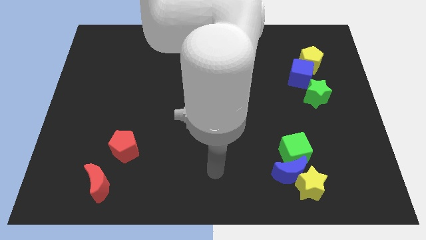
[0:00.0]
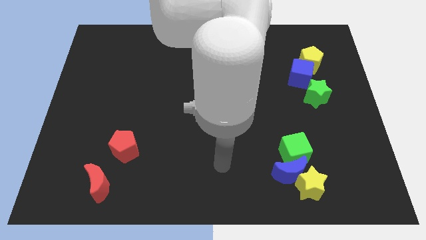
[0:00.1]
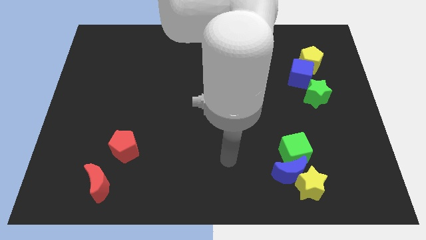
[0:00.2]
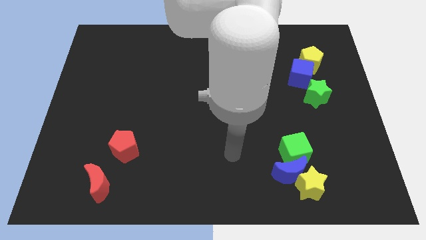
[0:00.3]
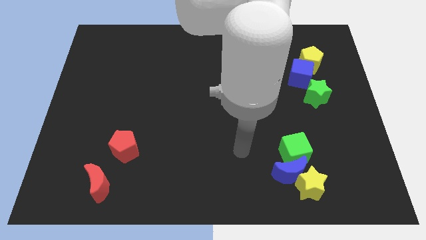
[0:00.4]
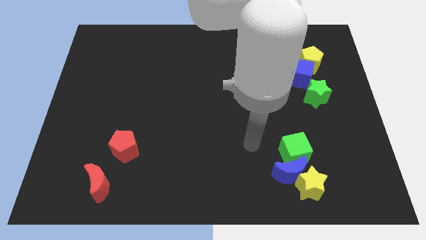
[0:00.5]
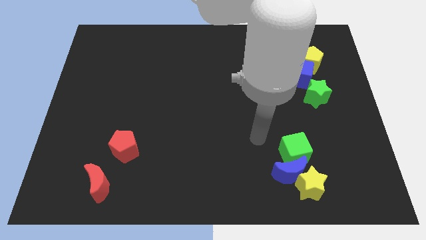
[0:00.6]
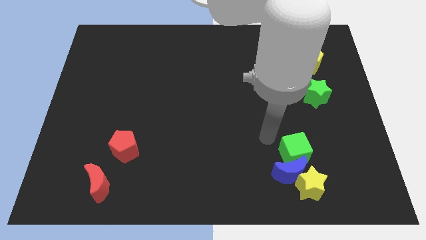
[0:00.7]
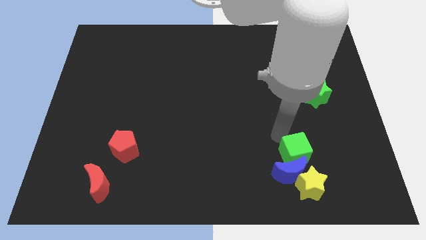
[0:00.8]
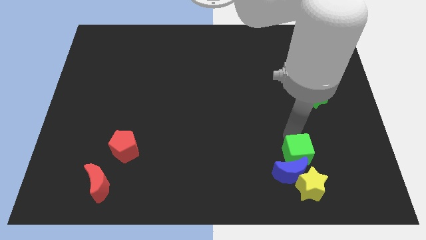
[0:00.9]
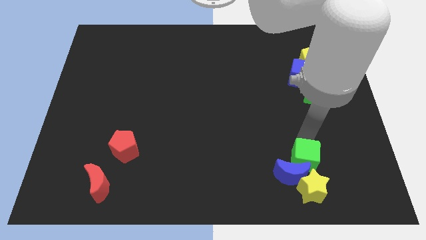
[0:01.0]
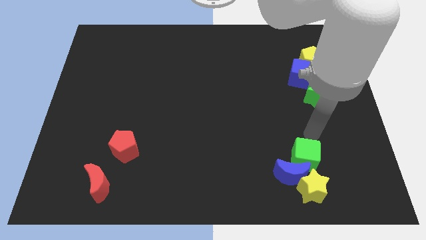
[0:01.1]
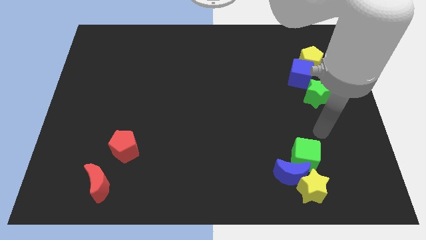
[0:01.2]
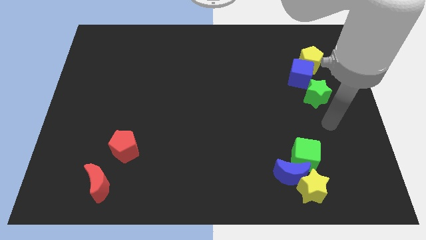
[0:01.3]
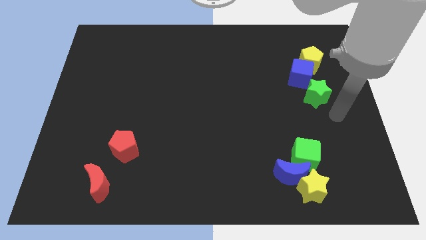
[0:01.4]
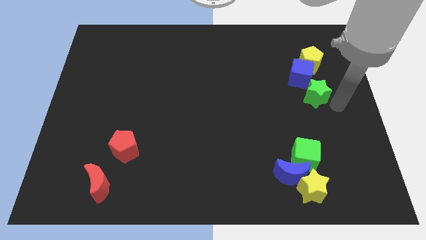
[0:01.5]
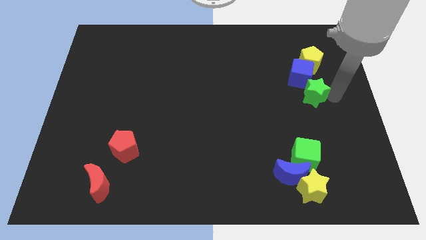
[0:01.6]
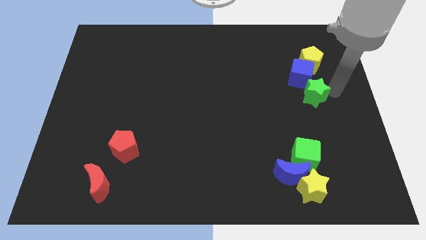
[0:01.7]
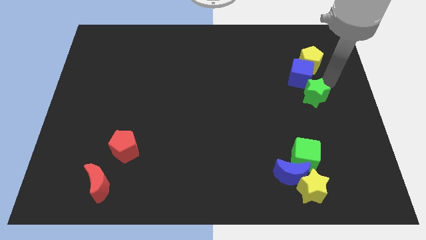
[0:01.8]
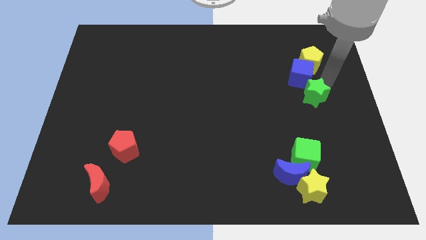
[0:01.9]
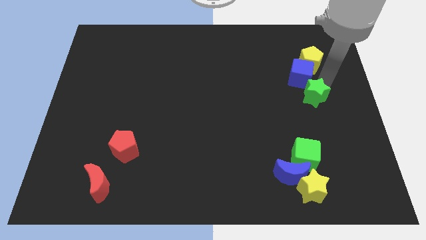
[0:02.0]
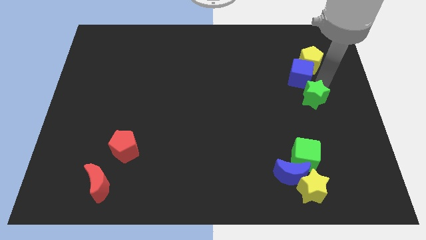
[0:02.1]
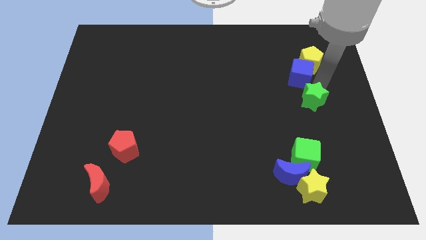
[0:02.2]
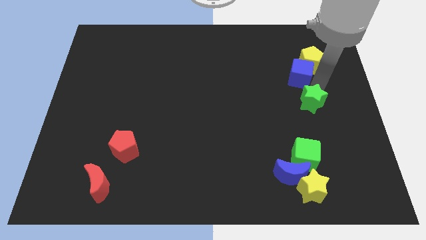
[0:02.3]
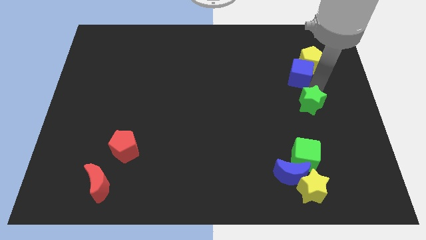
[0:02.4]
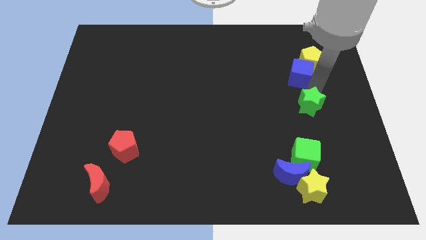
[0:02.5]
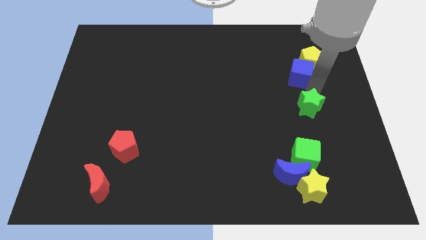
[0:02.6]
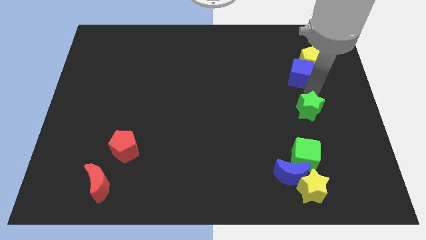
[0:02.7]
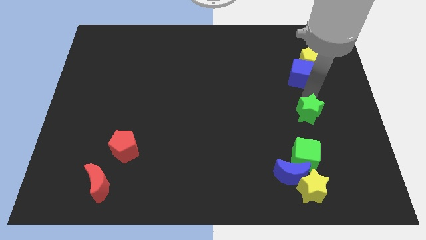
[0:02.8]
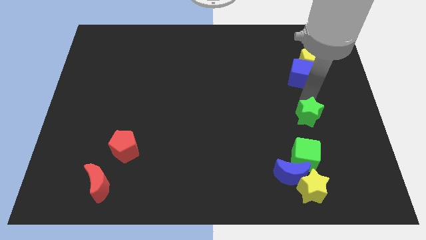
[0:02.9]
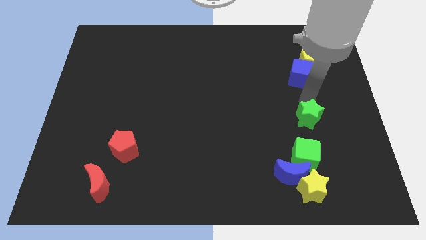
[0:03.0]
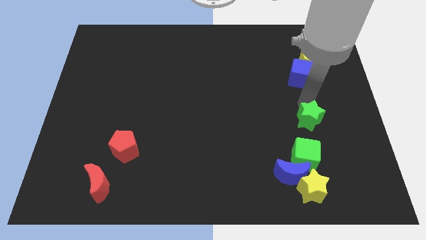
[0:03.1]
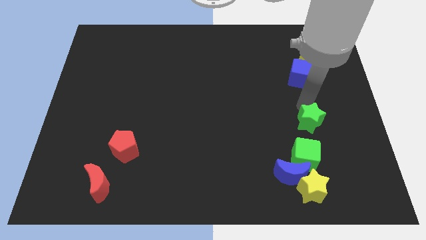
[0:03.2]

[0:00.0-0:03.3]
move the green star down and then to the left a little bit

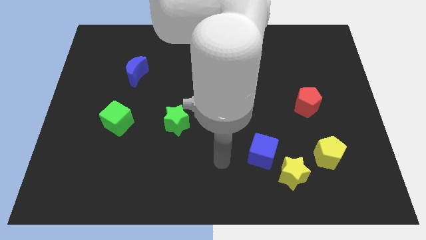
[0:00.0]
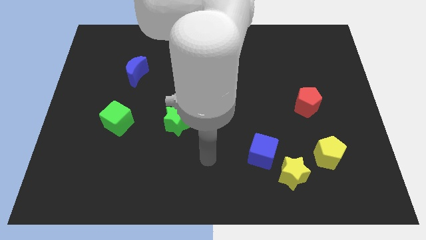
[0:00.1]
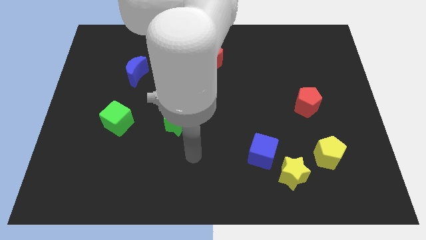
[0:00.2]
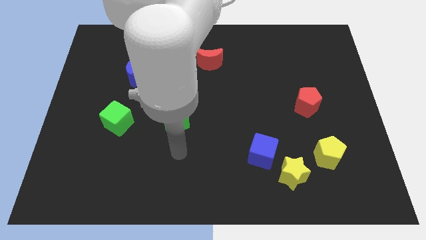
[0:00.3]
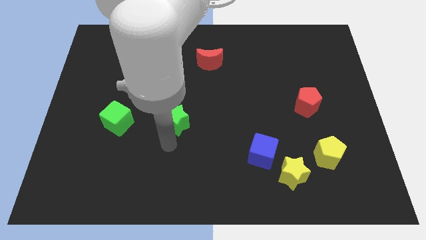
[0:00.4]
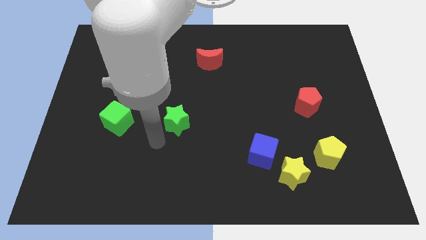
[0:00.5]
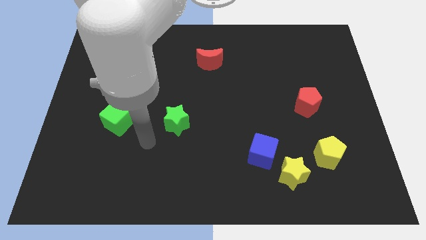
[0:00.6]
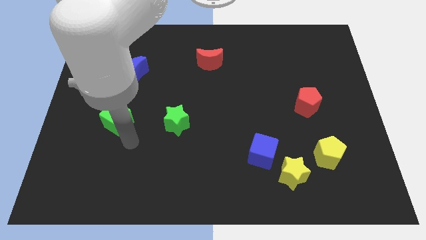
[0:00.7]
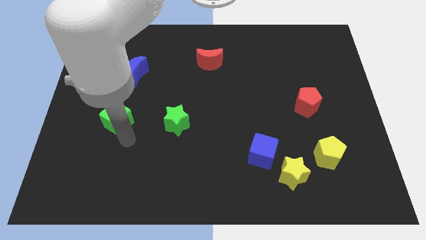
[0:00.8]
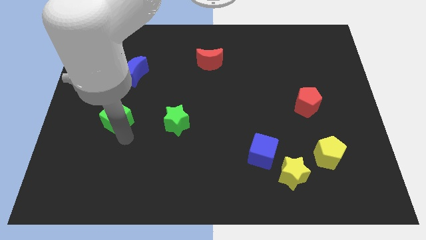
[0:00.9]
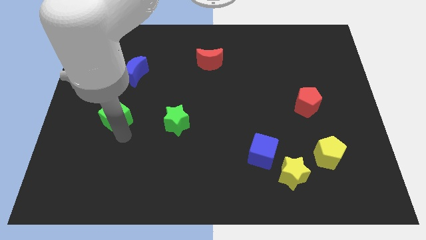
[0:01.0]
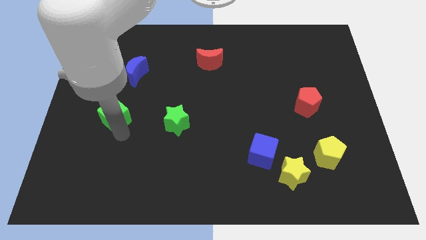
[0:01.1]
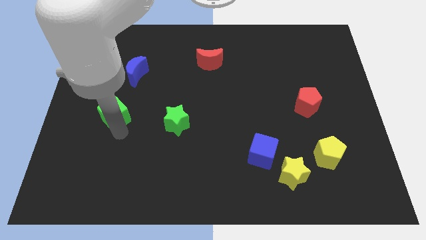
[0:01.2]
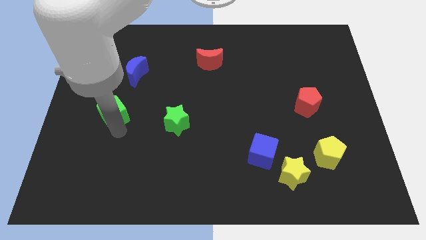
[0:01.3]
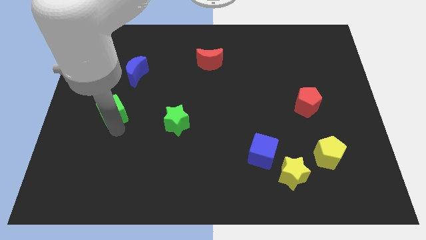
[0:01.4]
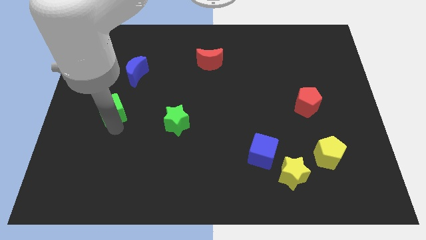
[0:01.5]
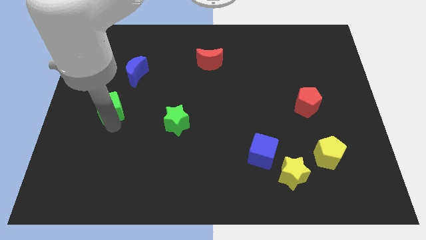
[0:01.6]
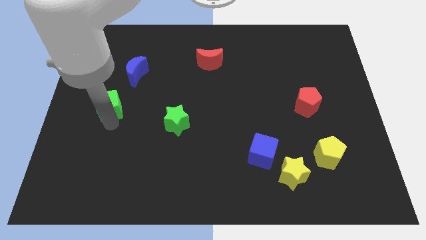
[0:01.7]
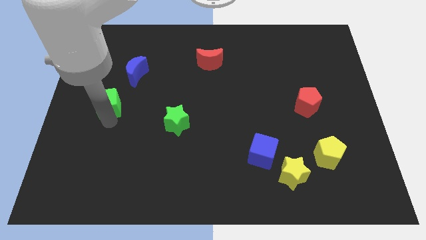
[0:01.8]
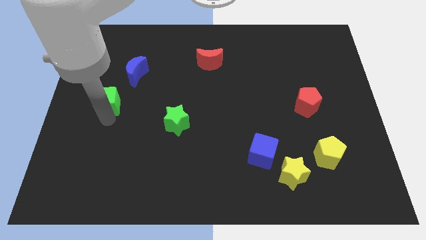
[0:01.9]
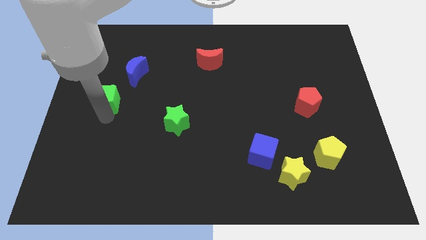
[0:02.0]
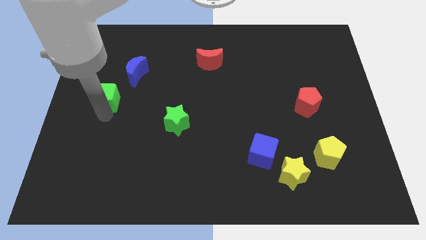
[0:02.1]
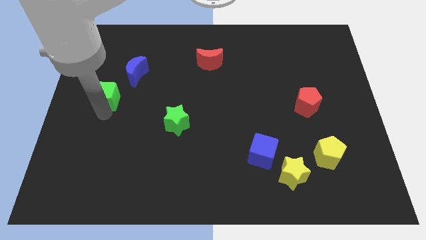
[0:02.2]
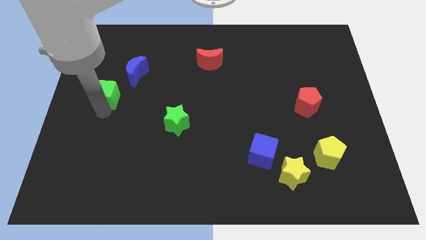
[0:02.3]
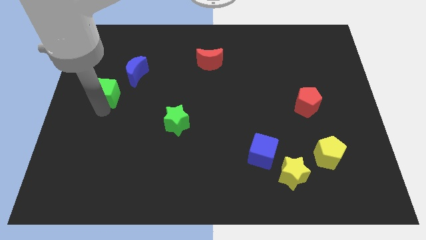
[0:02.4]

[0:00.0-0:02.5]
slightly push the green cube upwards

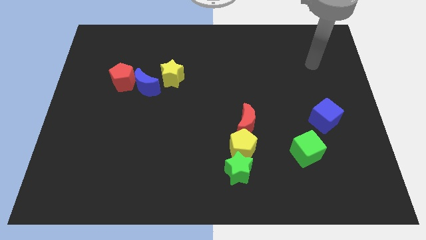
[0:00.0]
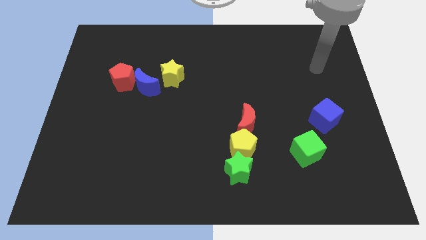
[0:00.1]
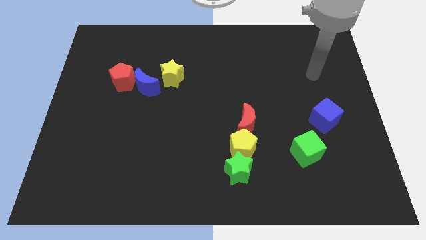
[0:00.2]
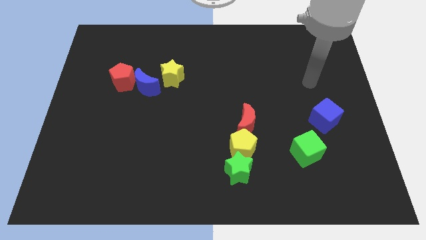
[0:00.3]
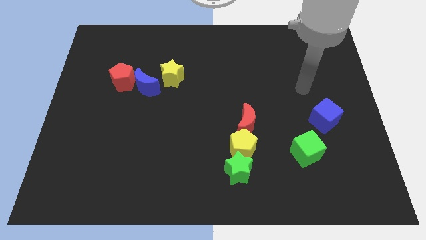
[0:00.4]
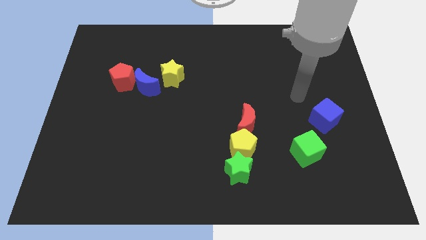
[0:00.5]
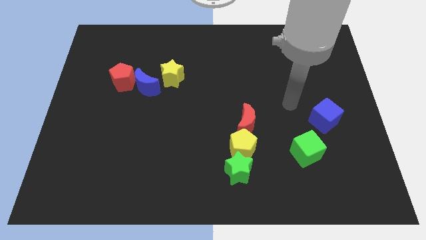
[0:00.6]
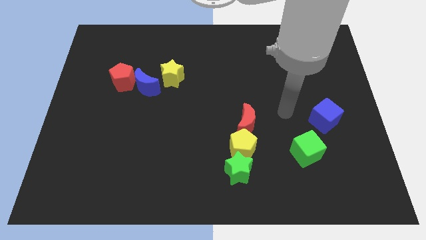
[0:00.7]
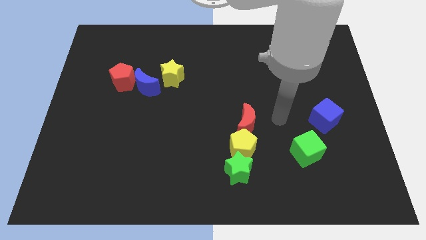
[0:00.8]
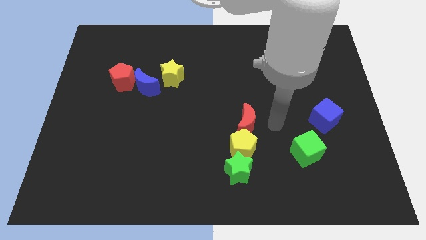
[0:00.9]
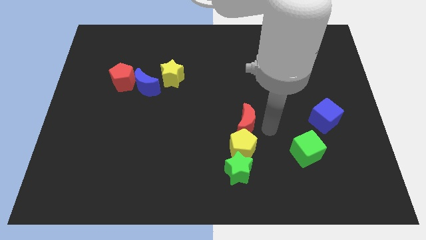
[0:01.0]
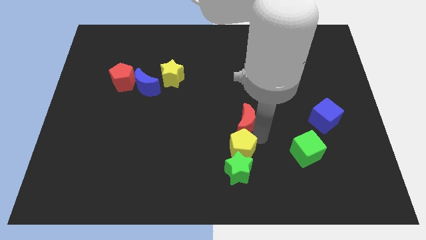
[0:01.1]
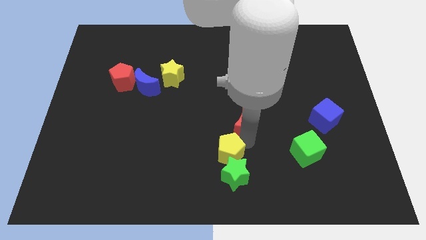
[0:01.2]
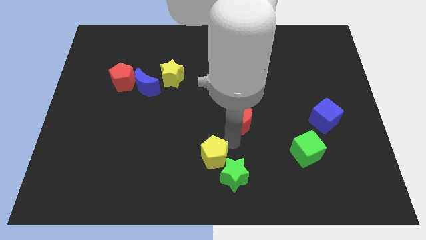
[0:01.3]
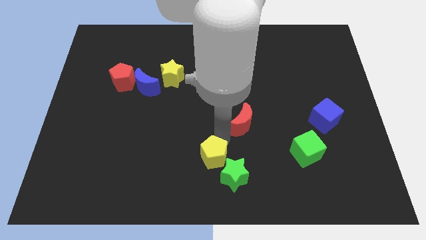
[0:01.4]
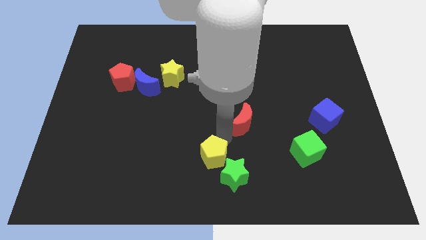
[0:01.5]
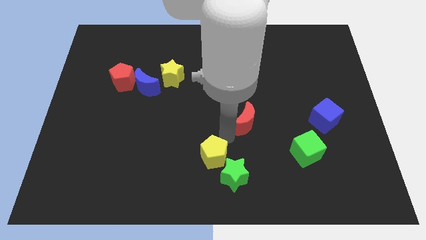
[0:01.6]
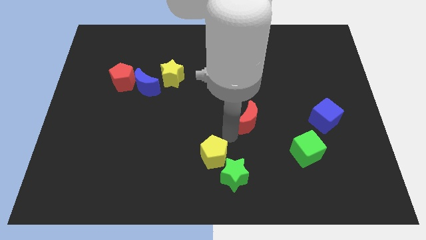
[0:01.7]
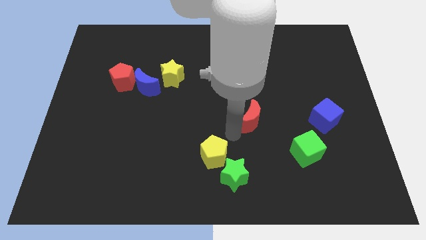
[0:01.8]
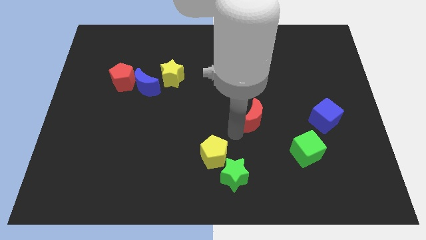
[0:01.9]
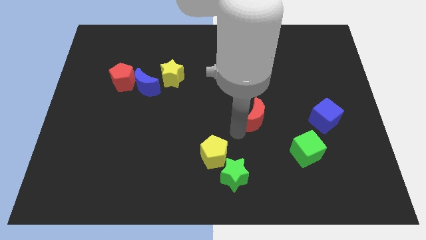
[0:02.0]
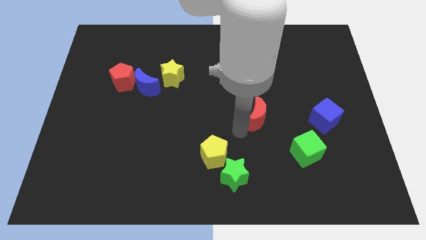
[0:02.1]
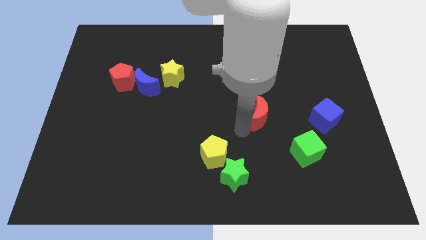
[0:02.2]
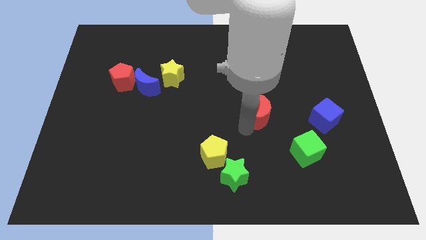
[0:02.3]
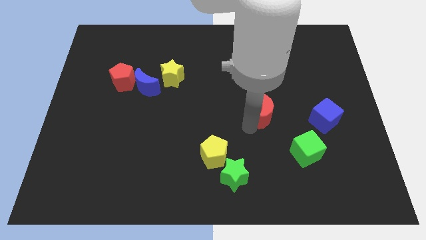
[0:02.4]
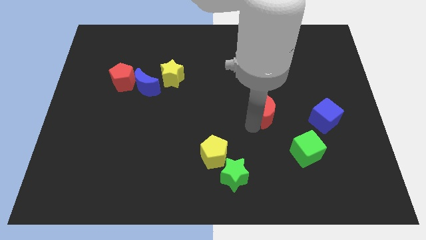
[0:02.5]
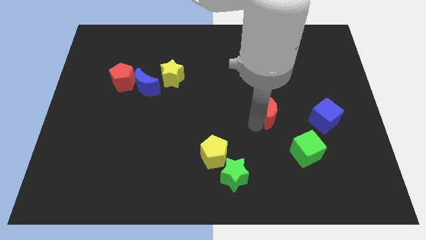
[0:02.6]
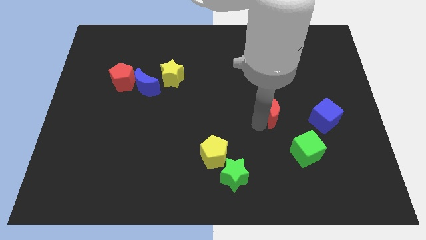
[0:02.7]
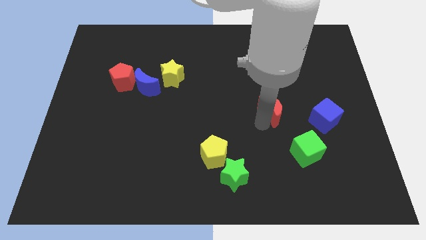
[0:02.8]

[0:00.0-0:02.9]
slide the red moon a bit diagonally up and right
